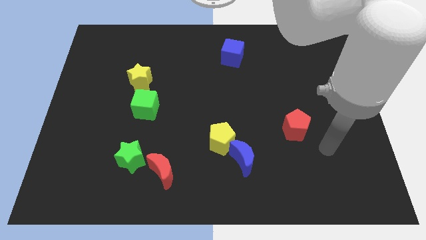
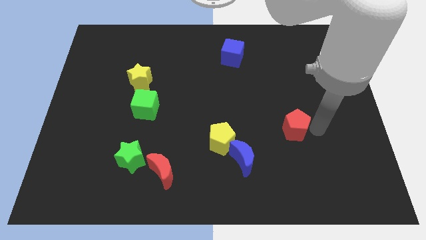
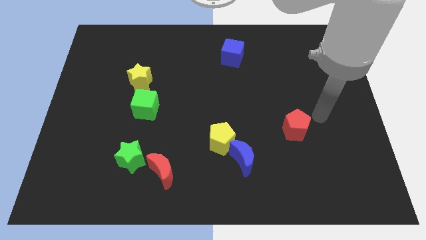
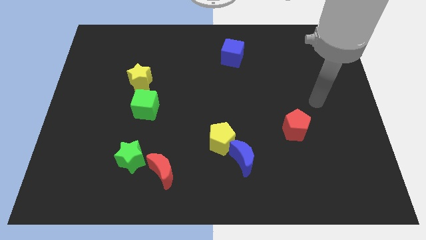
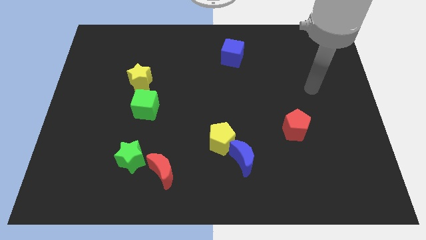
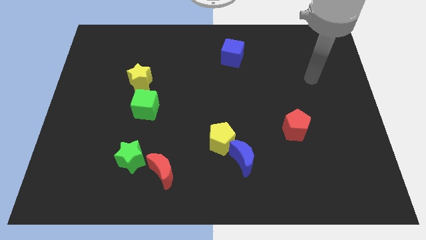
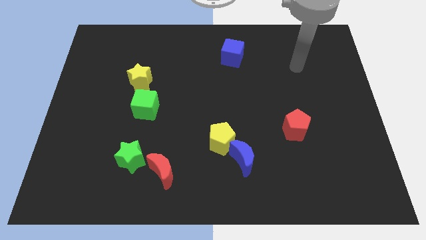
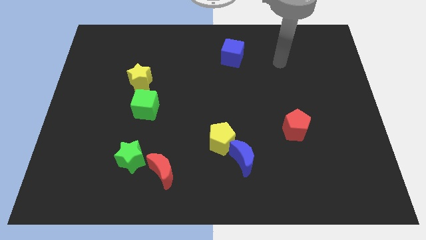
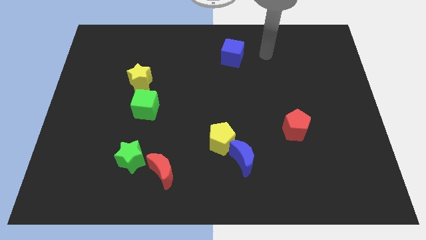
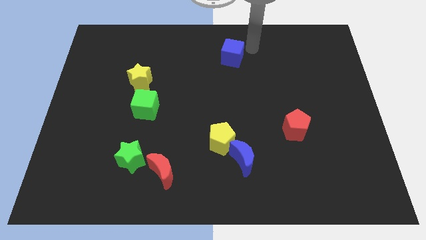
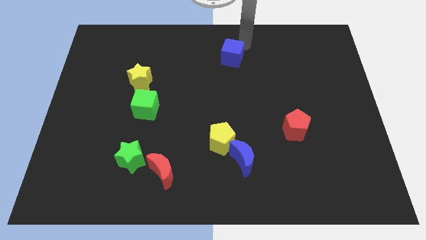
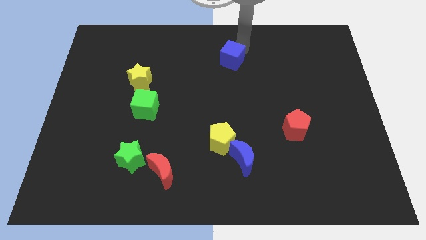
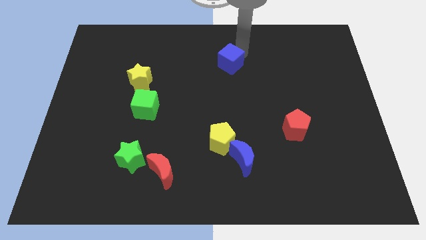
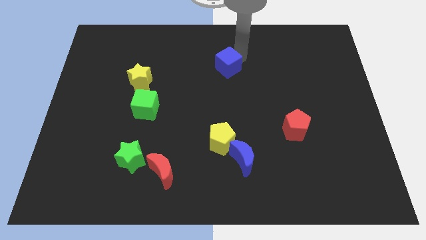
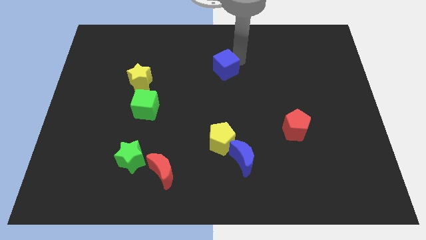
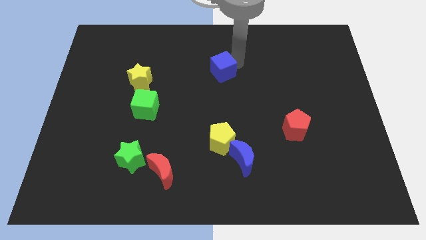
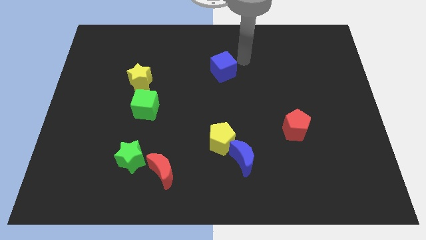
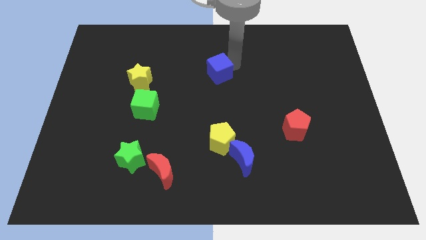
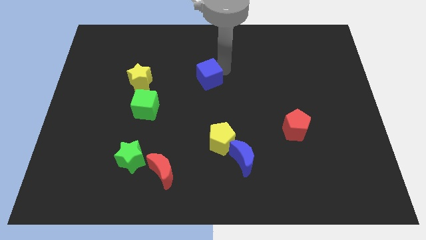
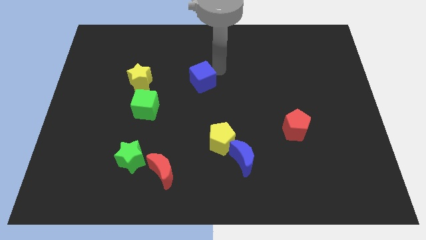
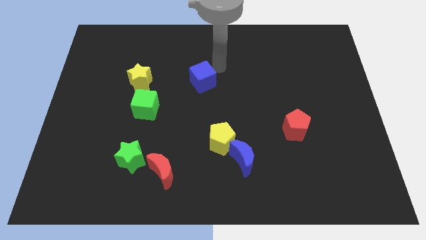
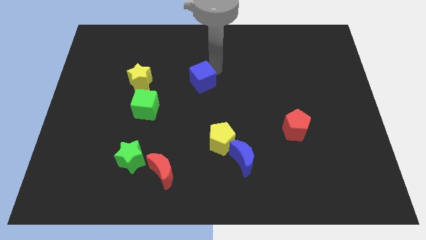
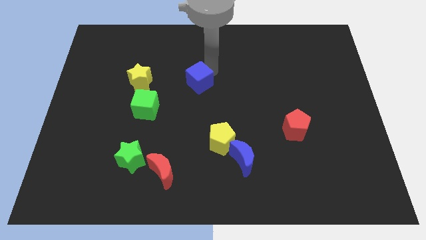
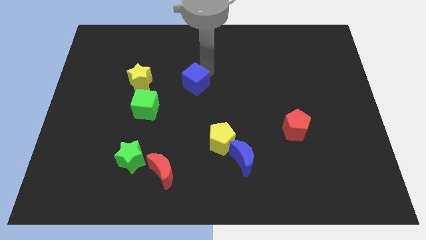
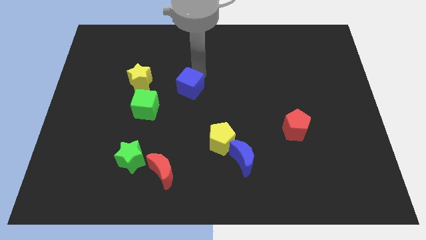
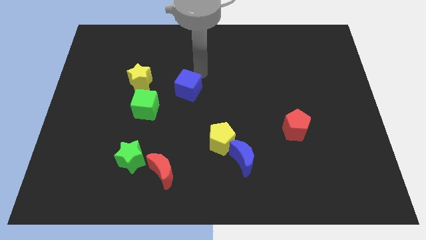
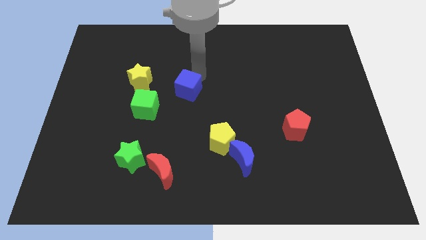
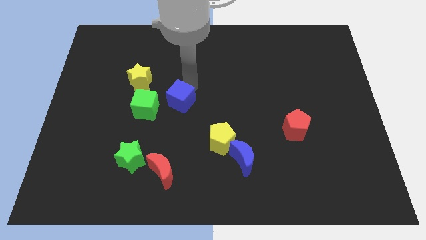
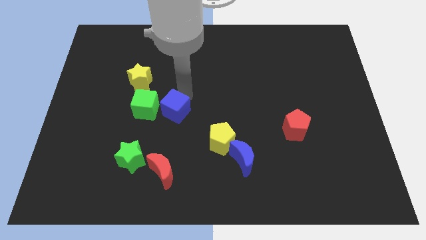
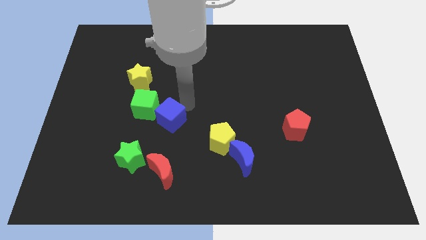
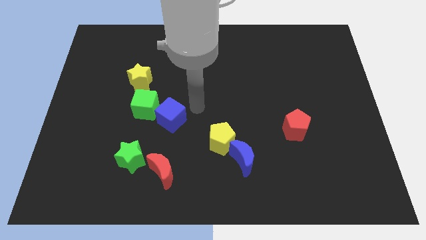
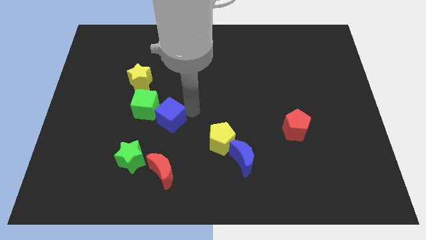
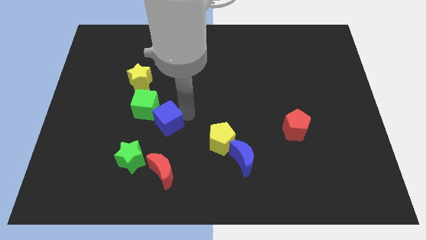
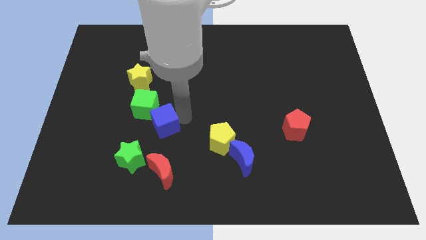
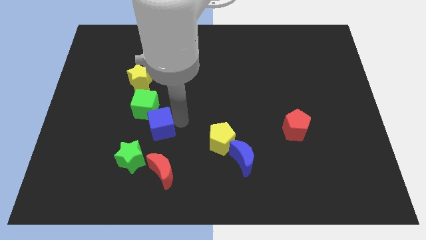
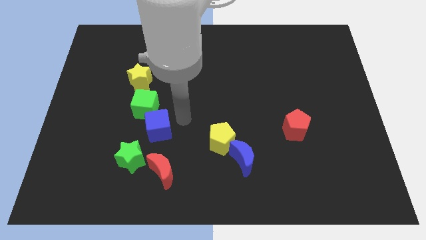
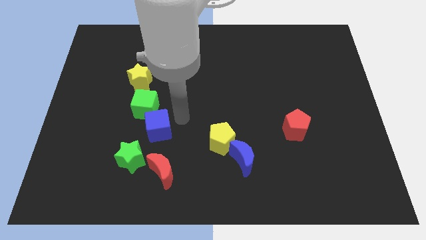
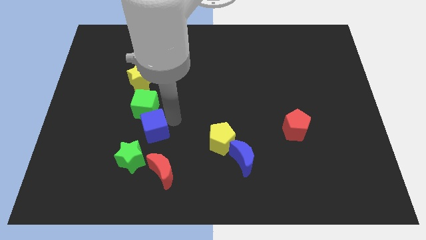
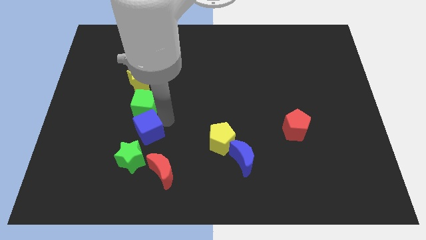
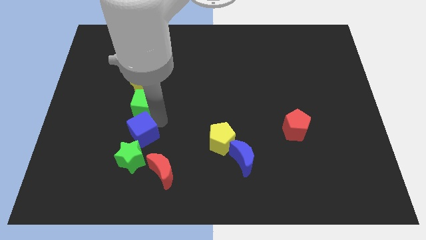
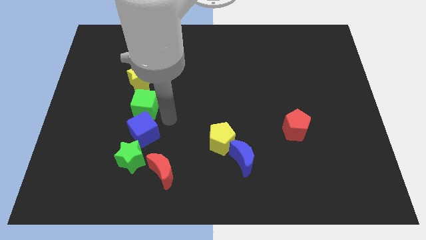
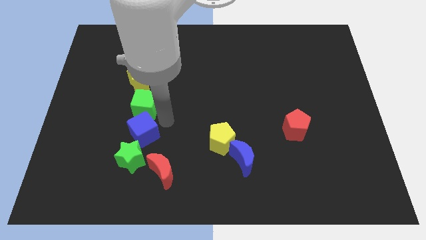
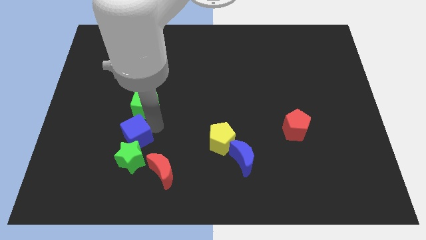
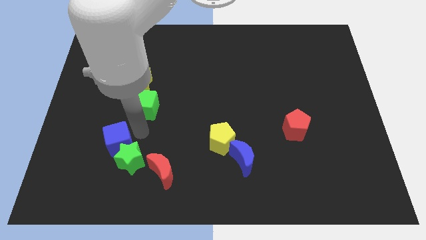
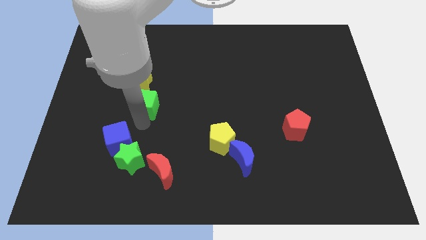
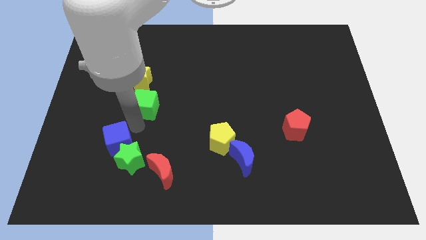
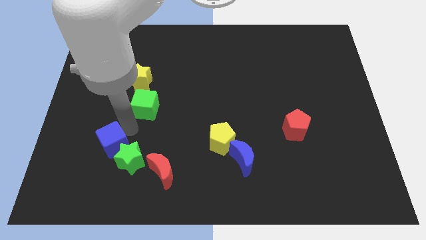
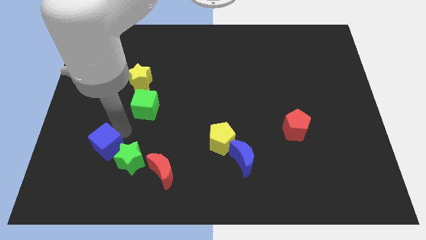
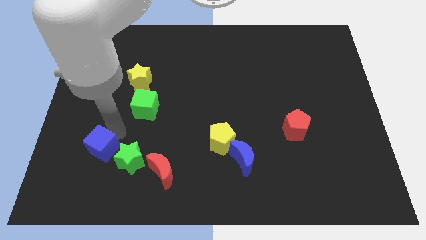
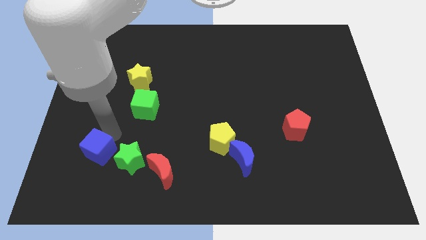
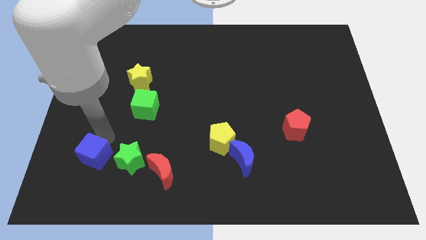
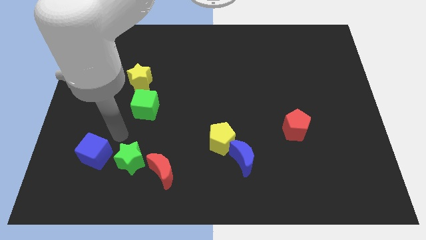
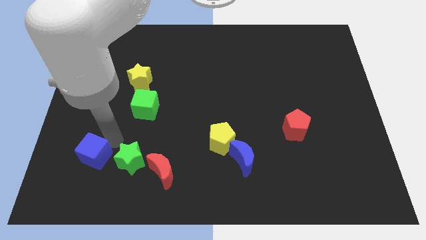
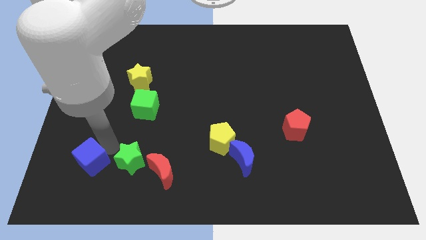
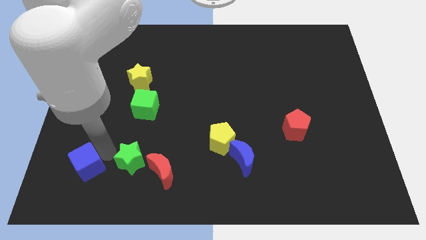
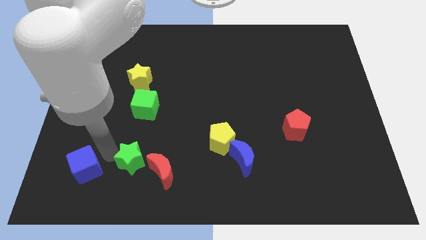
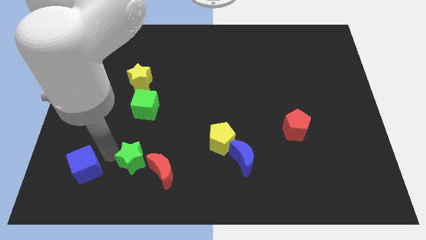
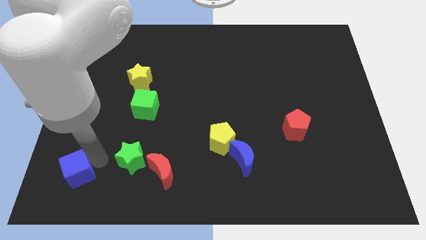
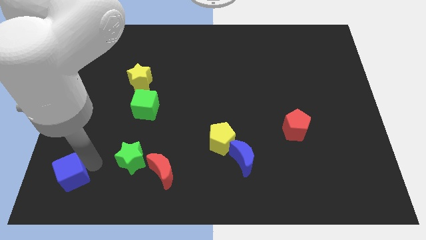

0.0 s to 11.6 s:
push the blue cube to the lower left corner
